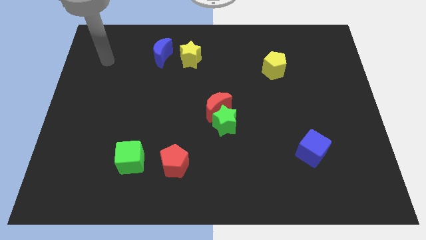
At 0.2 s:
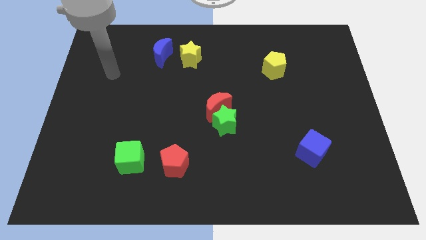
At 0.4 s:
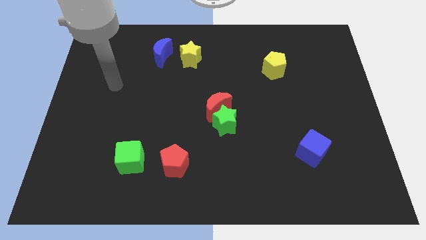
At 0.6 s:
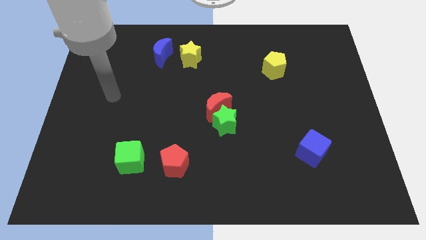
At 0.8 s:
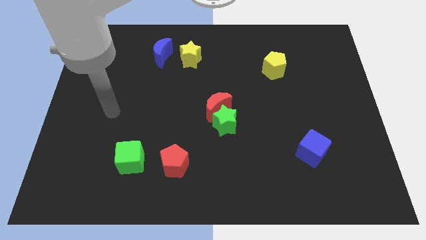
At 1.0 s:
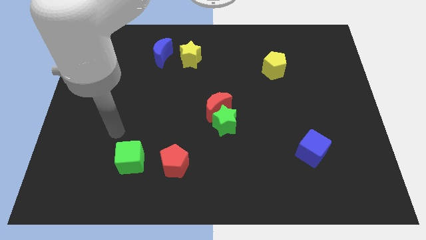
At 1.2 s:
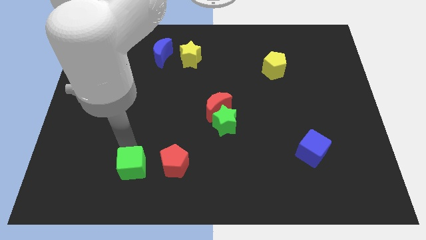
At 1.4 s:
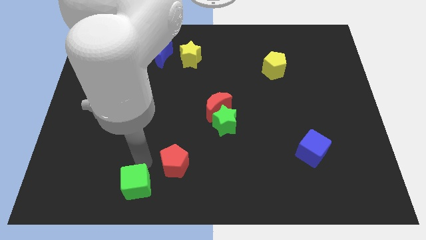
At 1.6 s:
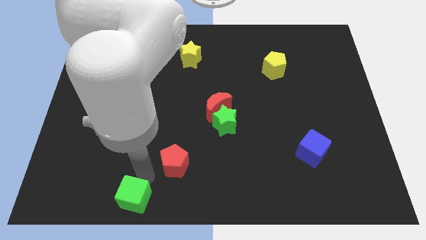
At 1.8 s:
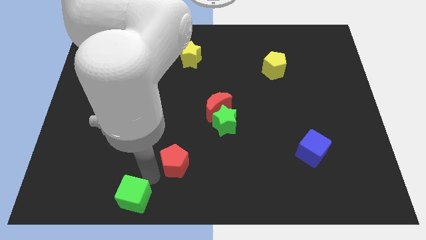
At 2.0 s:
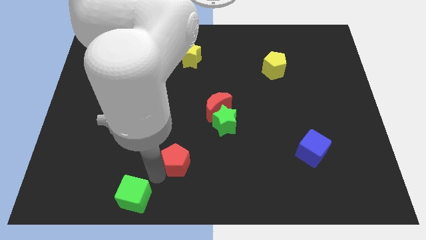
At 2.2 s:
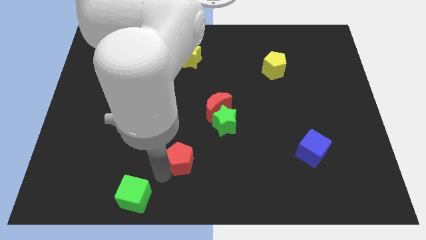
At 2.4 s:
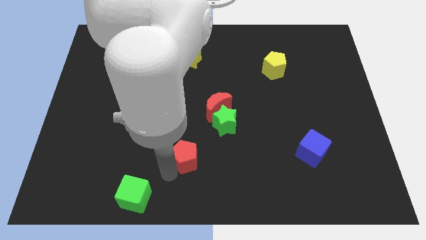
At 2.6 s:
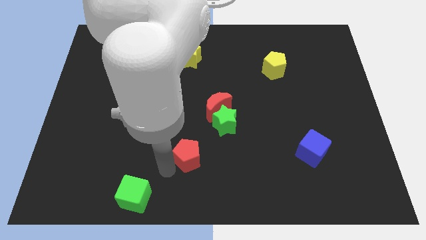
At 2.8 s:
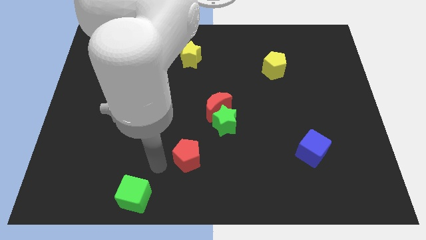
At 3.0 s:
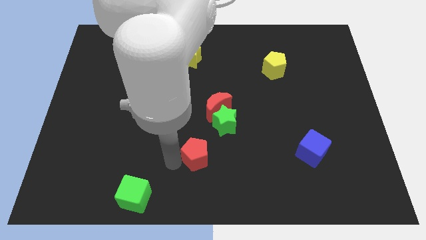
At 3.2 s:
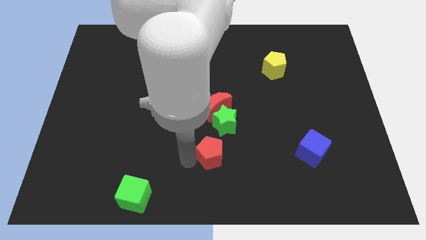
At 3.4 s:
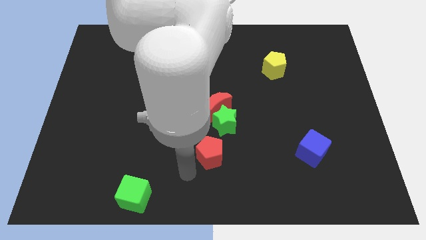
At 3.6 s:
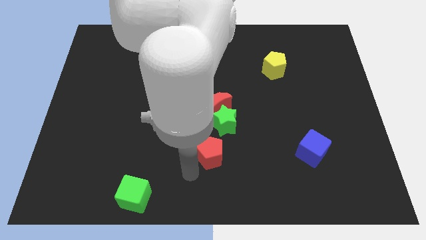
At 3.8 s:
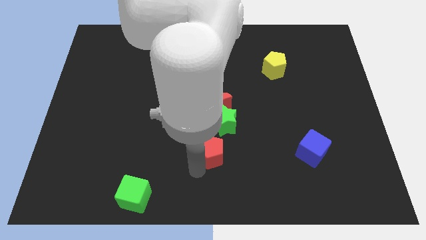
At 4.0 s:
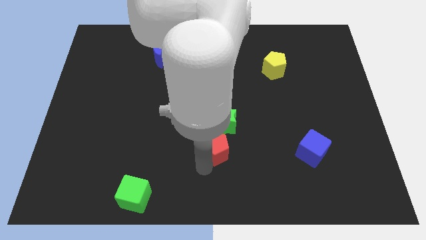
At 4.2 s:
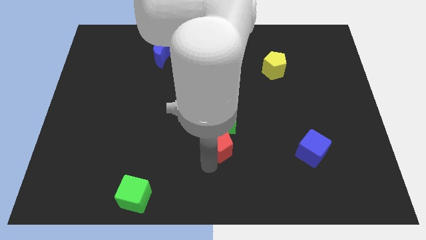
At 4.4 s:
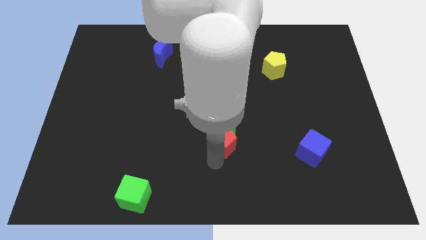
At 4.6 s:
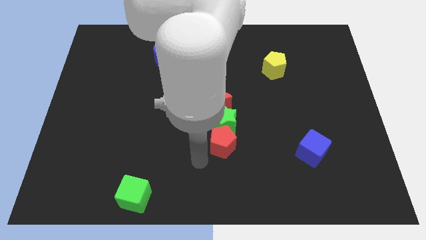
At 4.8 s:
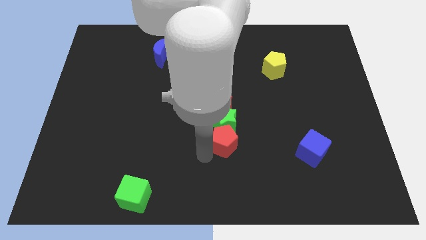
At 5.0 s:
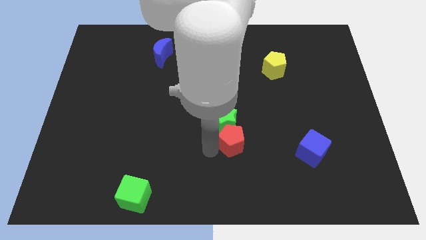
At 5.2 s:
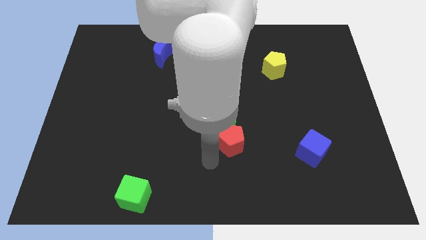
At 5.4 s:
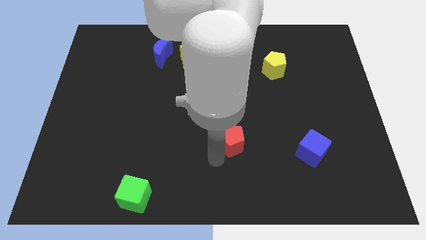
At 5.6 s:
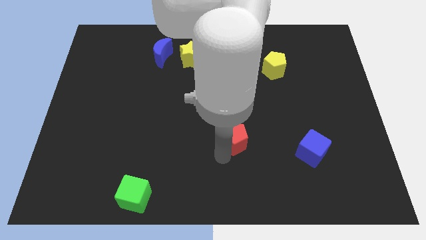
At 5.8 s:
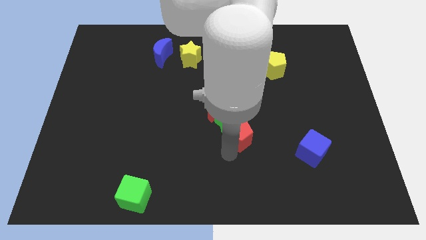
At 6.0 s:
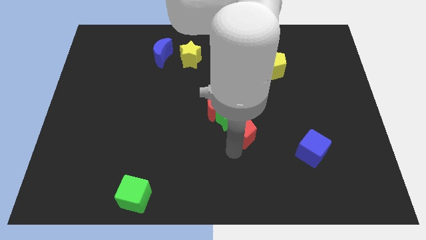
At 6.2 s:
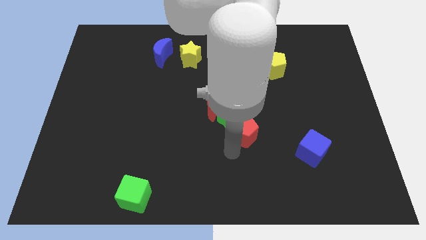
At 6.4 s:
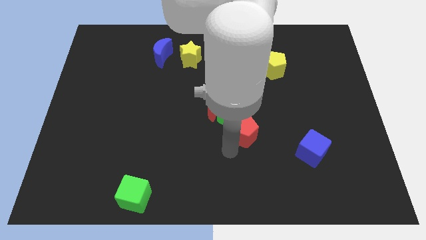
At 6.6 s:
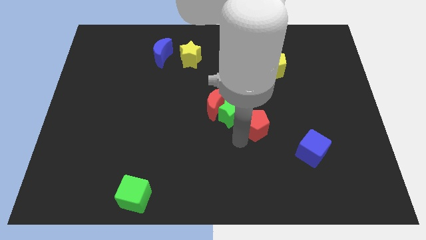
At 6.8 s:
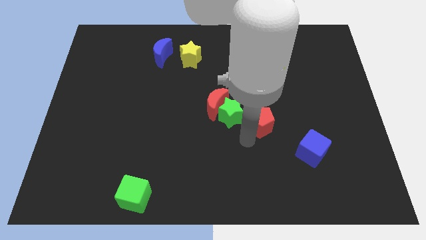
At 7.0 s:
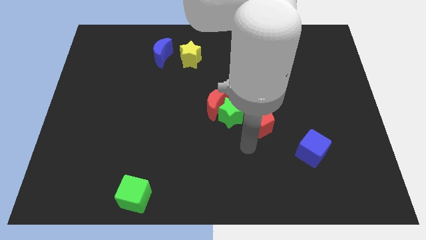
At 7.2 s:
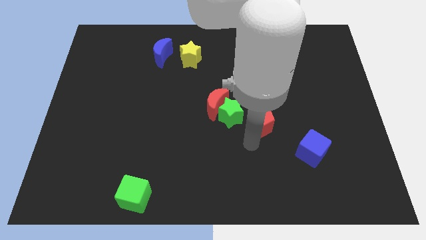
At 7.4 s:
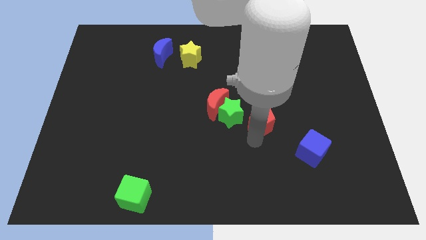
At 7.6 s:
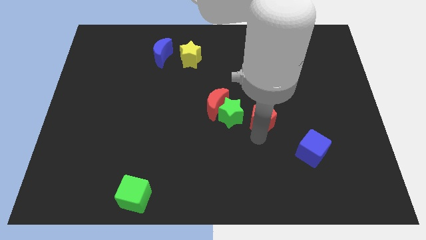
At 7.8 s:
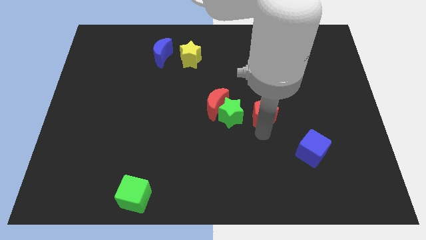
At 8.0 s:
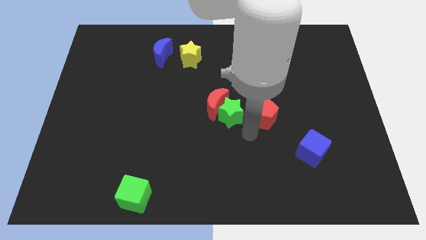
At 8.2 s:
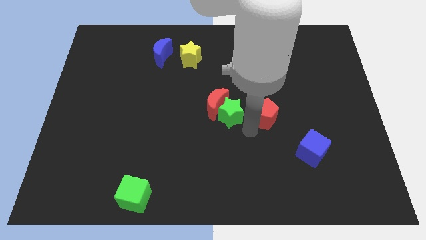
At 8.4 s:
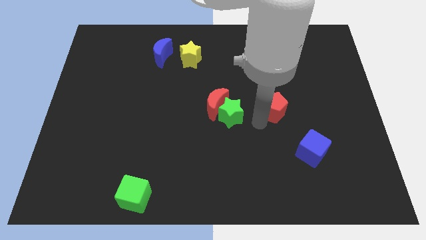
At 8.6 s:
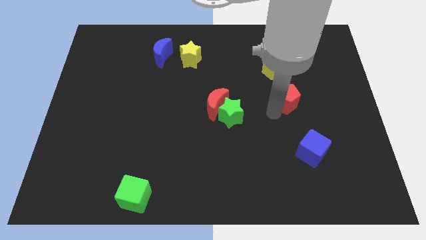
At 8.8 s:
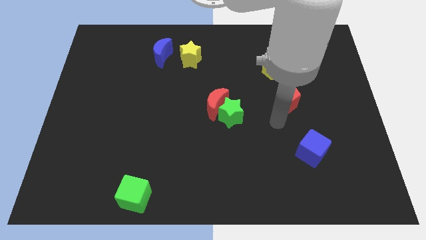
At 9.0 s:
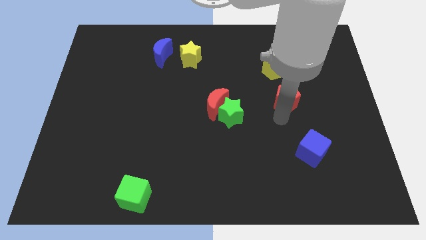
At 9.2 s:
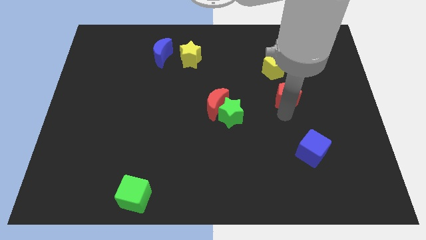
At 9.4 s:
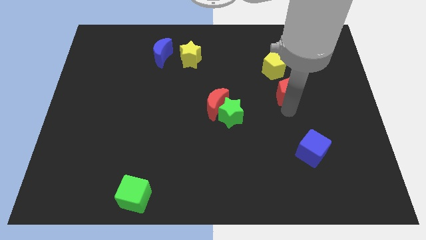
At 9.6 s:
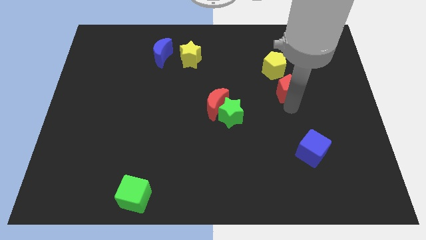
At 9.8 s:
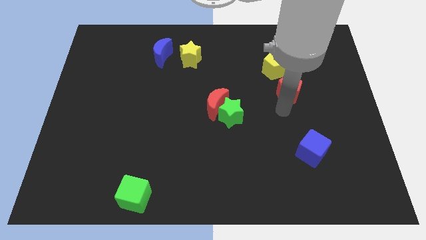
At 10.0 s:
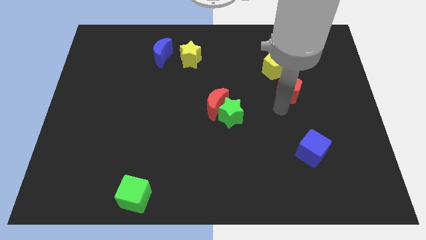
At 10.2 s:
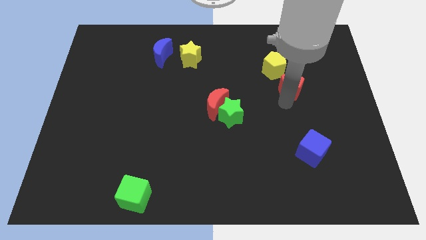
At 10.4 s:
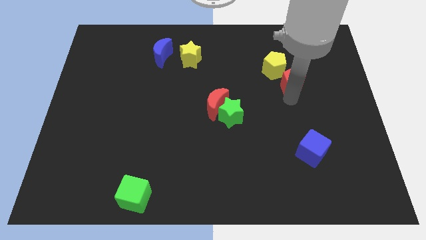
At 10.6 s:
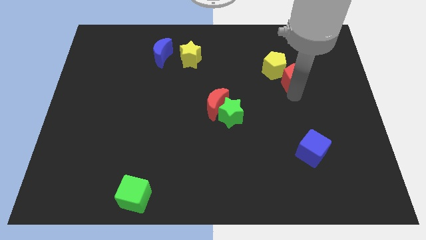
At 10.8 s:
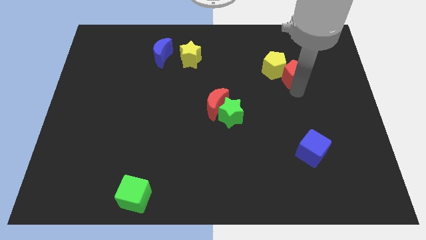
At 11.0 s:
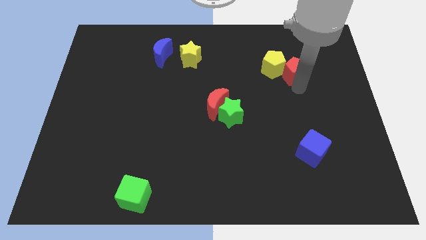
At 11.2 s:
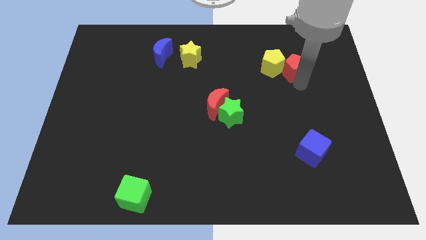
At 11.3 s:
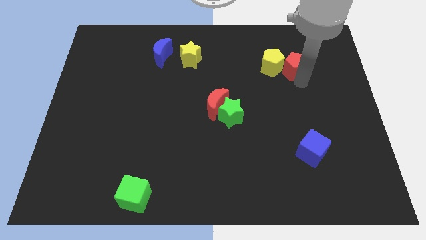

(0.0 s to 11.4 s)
move the red pentagon to the top right side of the yellow pentagon

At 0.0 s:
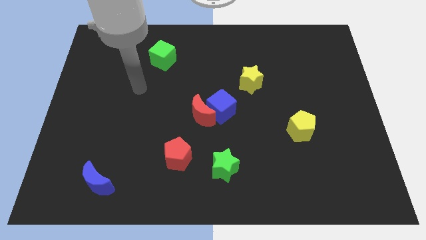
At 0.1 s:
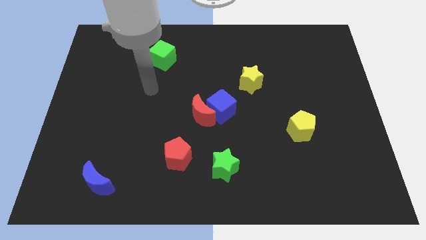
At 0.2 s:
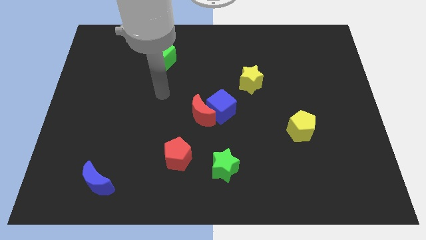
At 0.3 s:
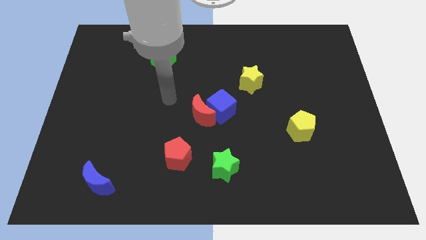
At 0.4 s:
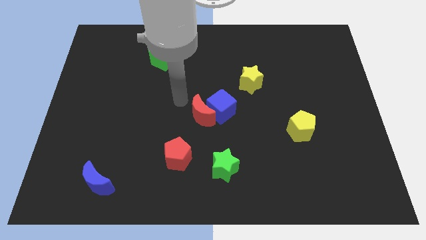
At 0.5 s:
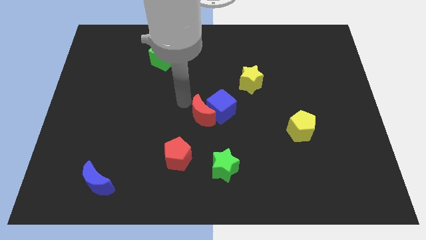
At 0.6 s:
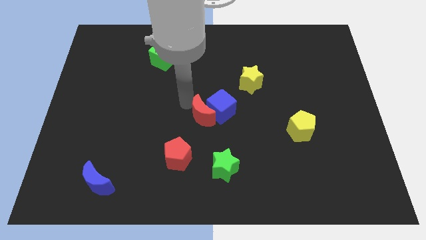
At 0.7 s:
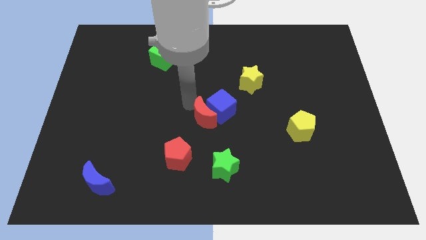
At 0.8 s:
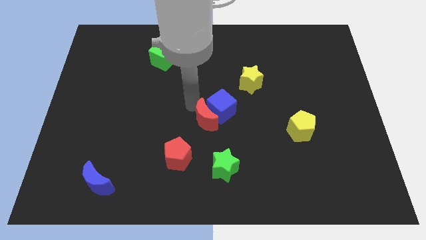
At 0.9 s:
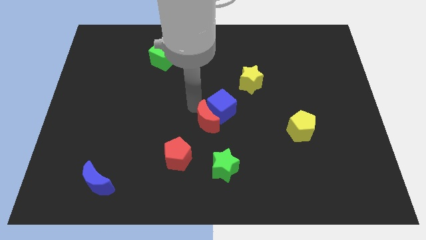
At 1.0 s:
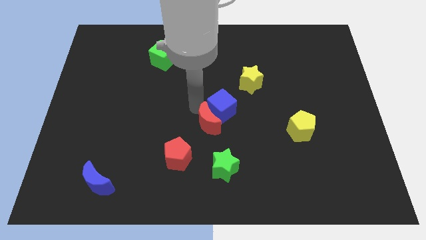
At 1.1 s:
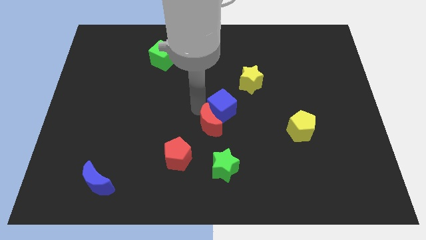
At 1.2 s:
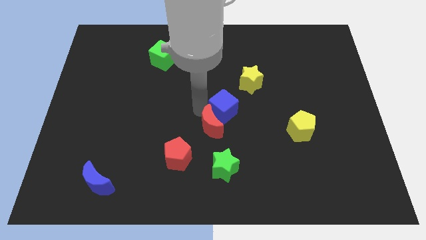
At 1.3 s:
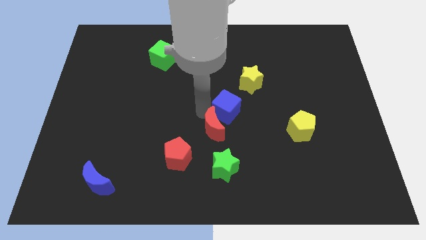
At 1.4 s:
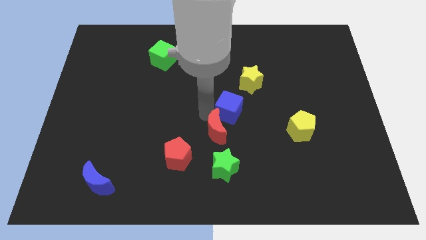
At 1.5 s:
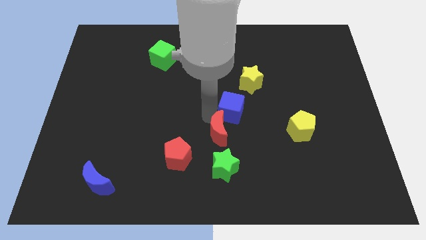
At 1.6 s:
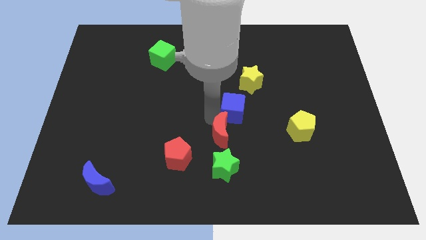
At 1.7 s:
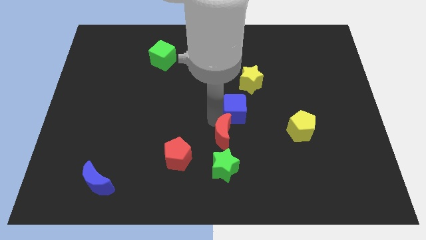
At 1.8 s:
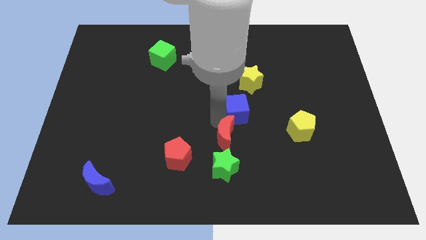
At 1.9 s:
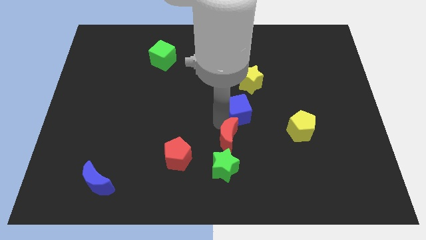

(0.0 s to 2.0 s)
slide the red moon diagonally up and to the right of the green star

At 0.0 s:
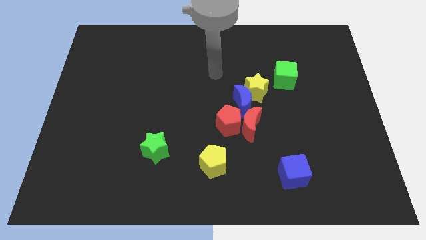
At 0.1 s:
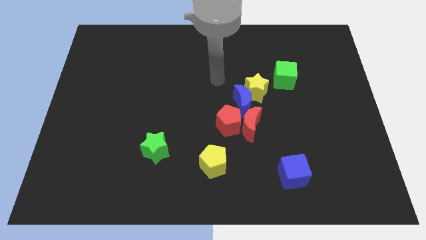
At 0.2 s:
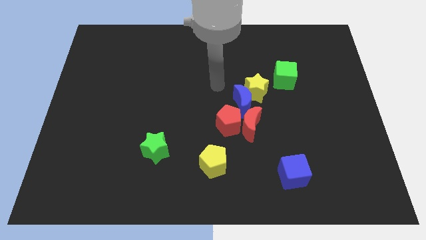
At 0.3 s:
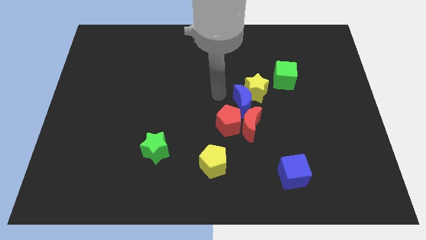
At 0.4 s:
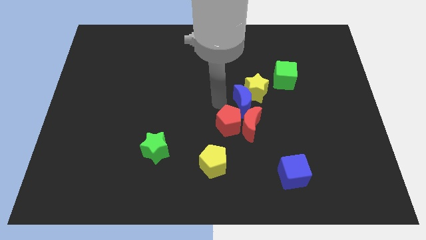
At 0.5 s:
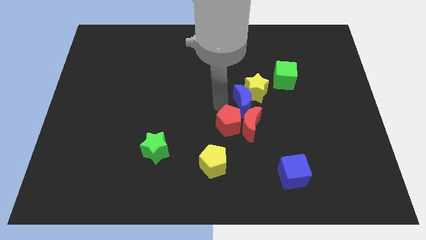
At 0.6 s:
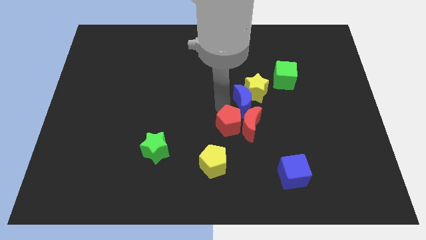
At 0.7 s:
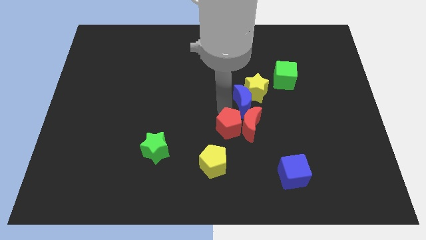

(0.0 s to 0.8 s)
push the red pentagon to the top right side of the yellow pentagon
